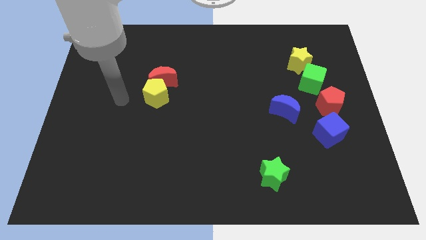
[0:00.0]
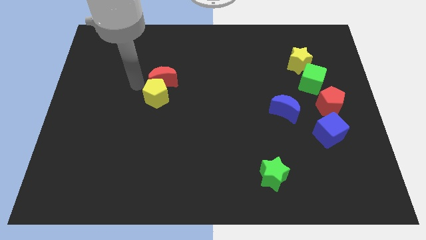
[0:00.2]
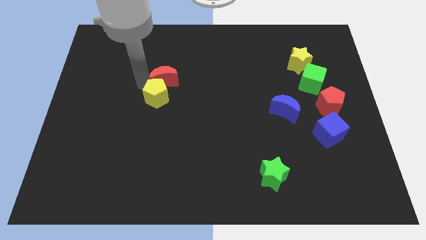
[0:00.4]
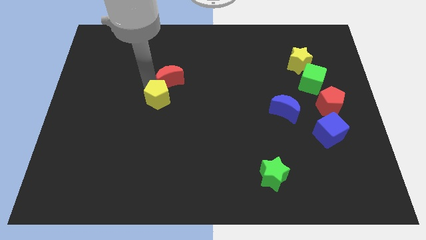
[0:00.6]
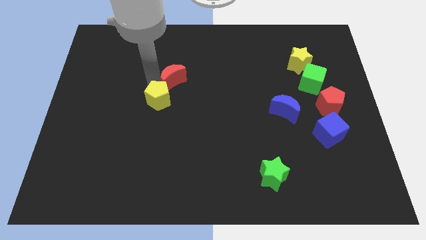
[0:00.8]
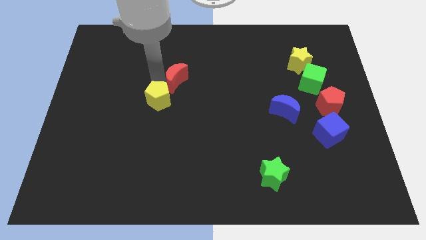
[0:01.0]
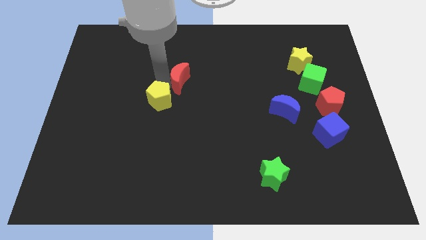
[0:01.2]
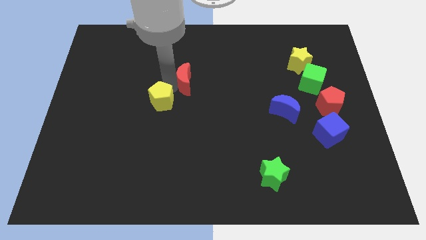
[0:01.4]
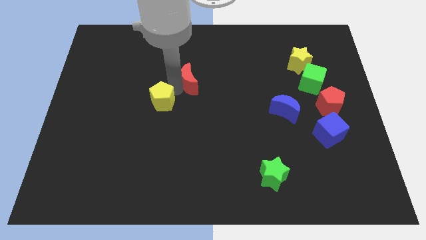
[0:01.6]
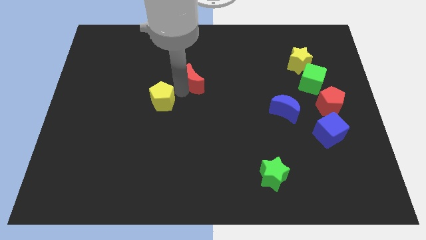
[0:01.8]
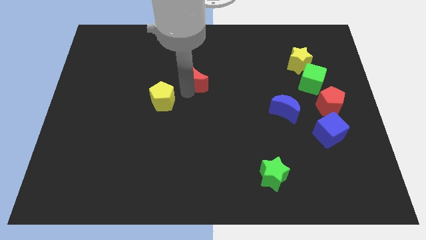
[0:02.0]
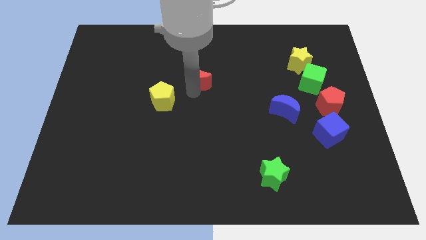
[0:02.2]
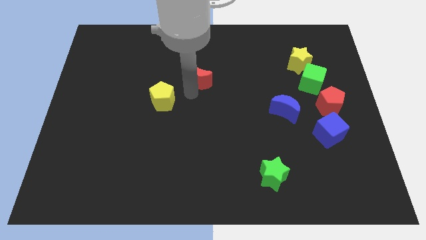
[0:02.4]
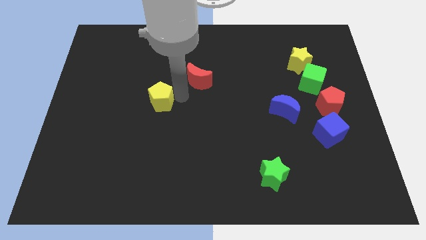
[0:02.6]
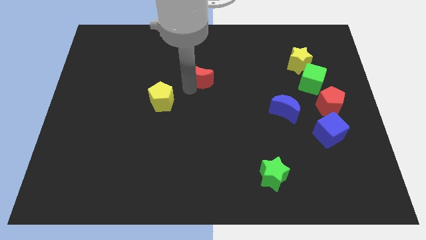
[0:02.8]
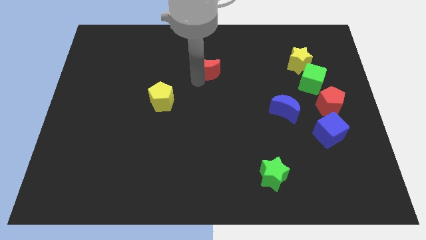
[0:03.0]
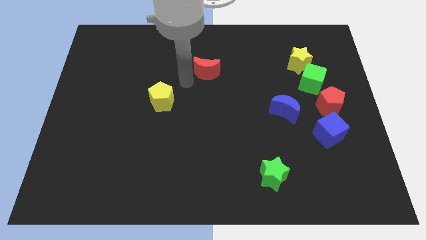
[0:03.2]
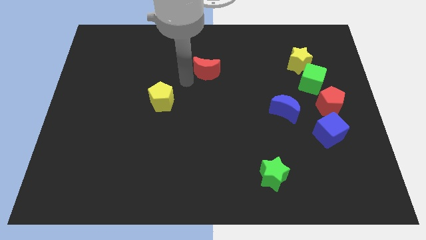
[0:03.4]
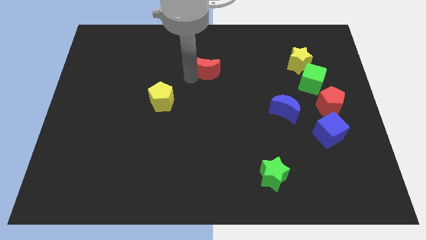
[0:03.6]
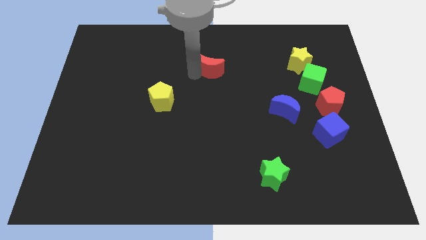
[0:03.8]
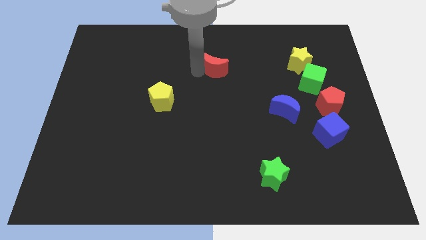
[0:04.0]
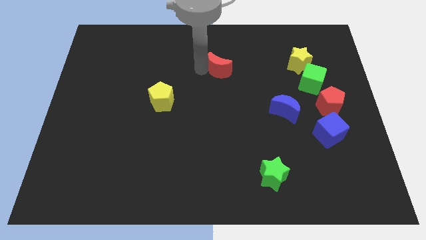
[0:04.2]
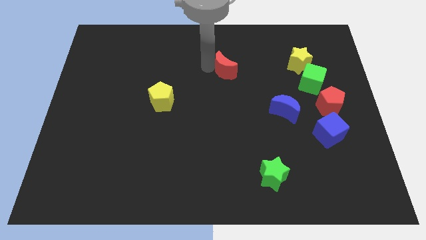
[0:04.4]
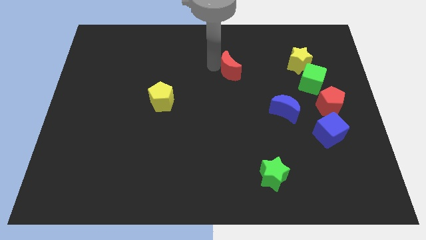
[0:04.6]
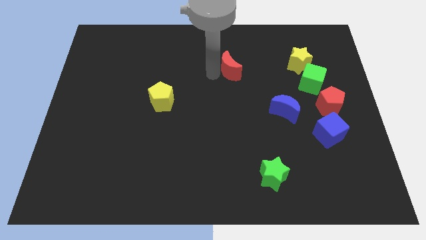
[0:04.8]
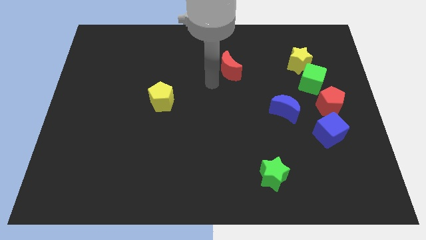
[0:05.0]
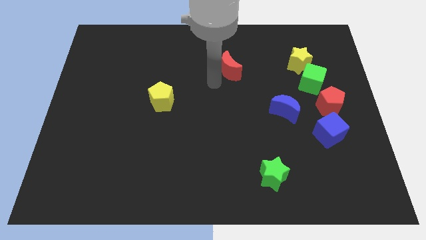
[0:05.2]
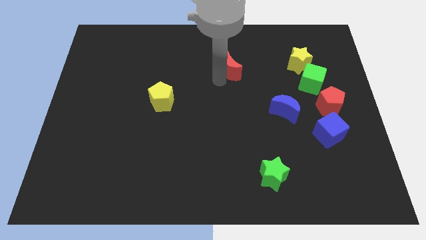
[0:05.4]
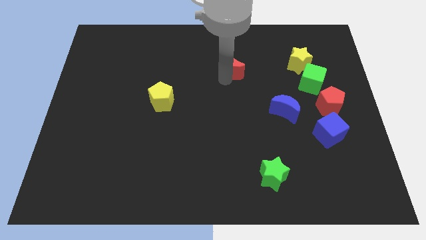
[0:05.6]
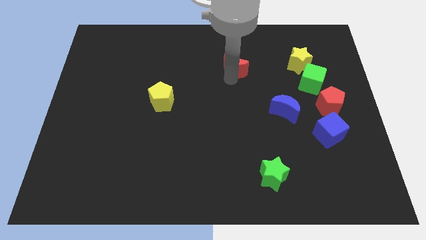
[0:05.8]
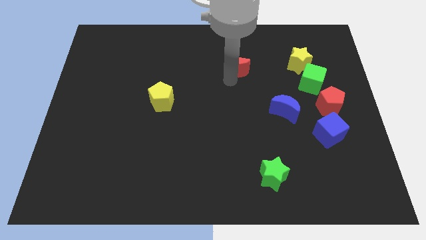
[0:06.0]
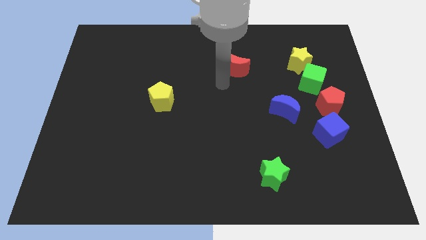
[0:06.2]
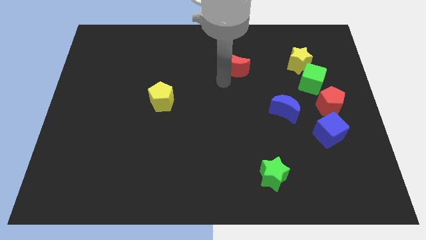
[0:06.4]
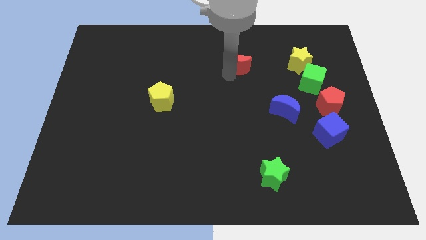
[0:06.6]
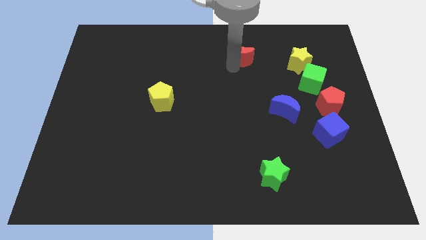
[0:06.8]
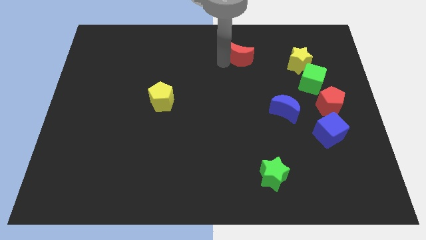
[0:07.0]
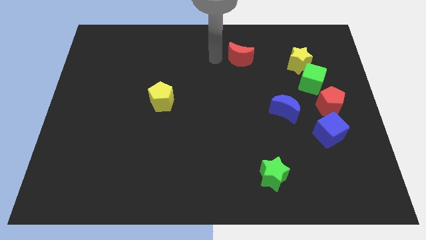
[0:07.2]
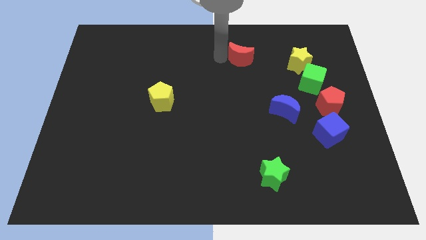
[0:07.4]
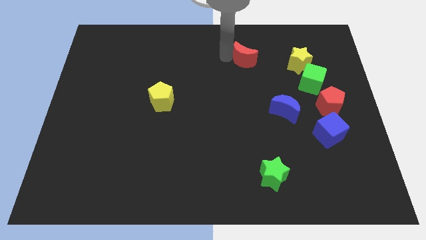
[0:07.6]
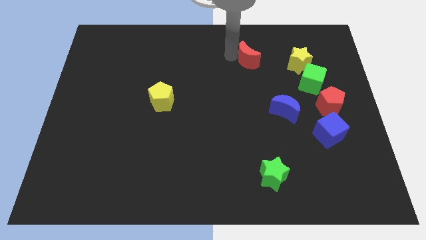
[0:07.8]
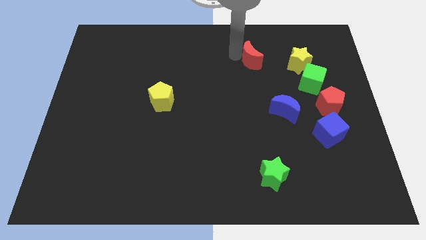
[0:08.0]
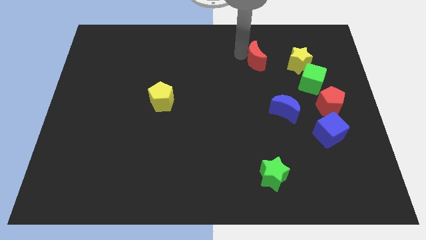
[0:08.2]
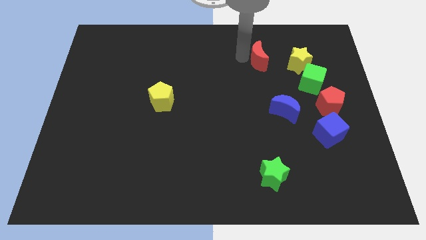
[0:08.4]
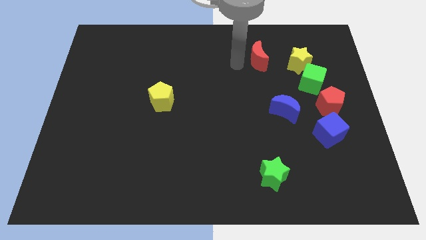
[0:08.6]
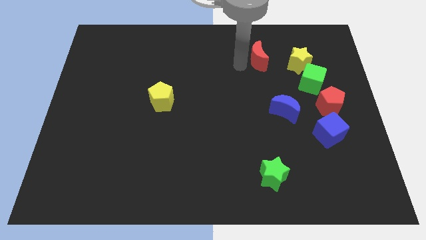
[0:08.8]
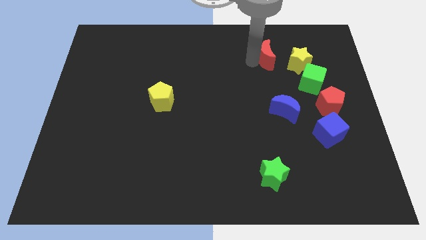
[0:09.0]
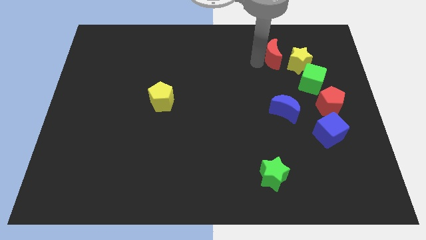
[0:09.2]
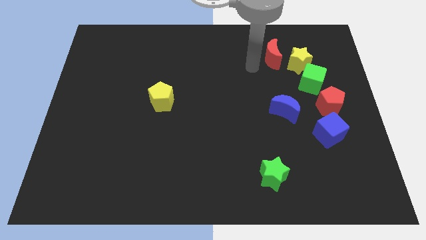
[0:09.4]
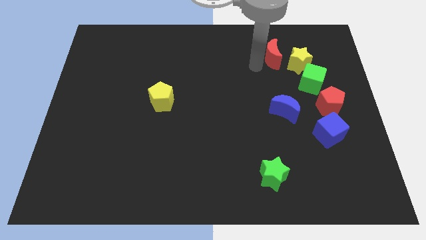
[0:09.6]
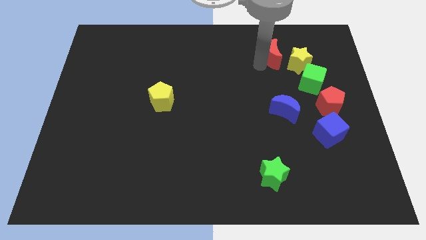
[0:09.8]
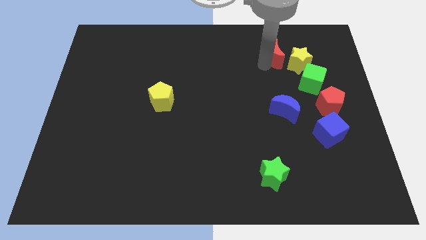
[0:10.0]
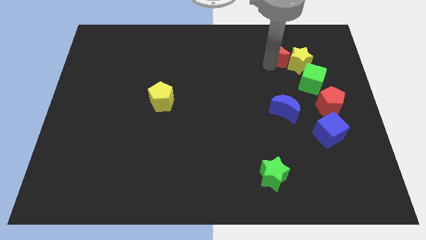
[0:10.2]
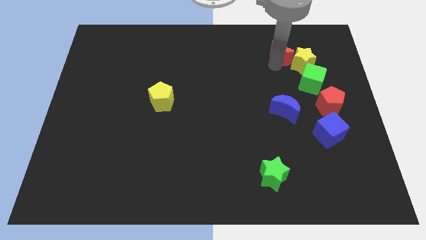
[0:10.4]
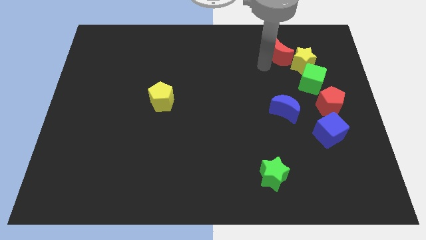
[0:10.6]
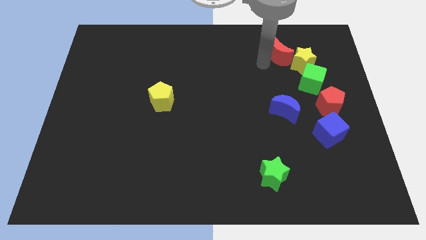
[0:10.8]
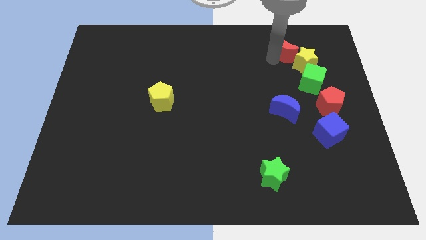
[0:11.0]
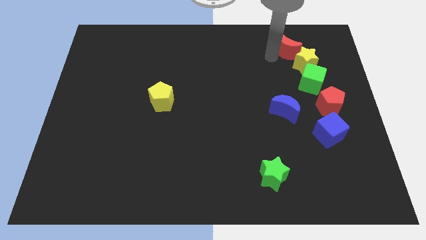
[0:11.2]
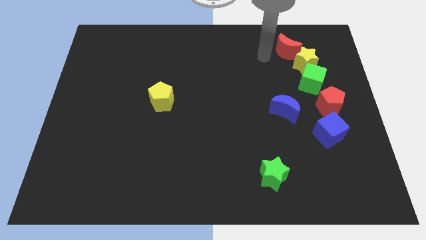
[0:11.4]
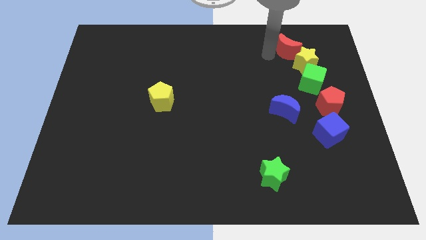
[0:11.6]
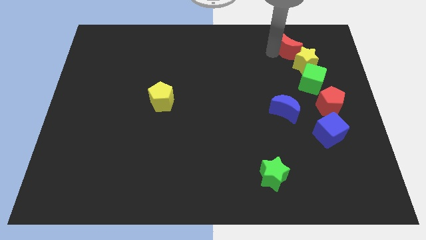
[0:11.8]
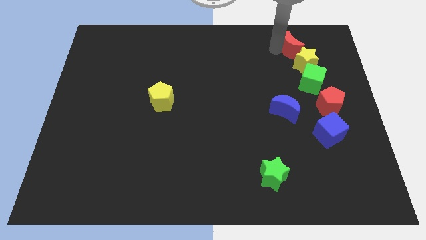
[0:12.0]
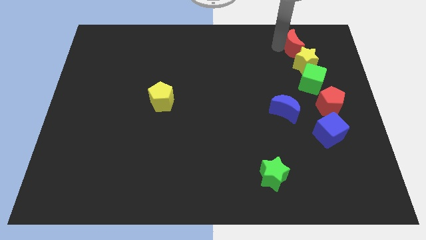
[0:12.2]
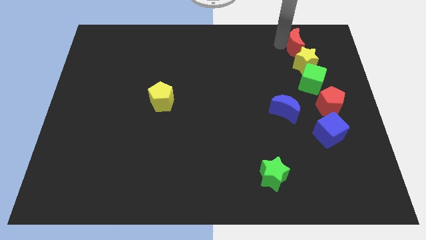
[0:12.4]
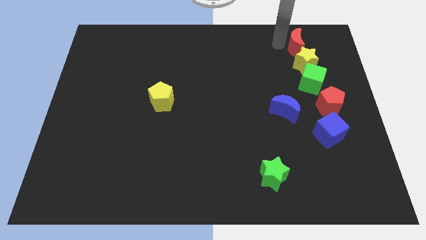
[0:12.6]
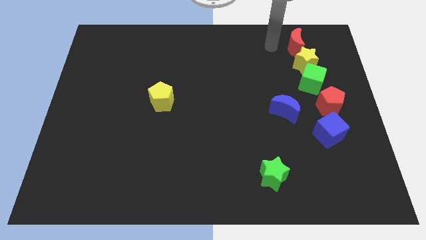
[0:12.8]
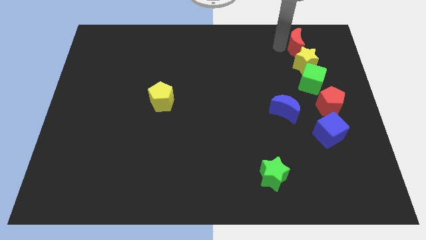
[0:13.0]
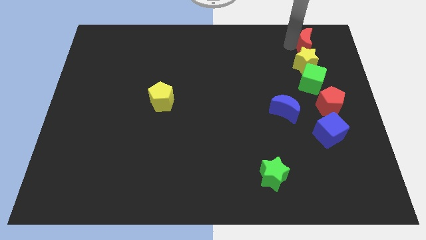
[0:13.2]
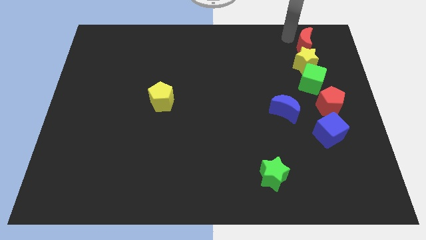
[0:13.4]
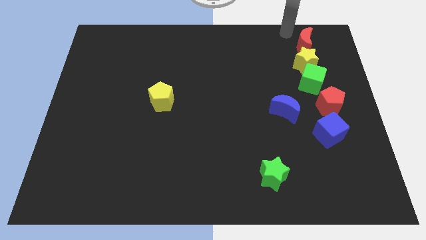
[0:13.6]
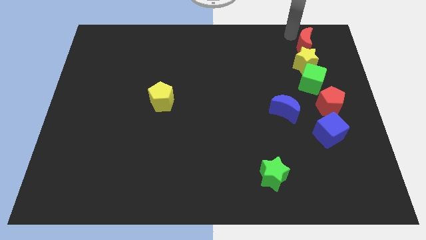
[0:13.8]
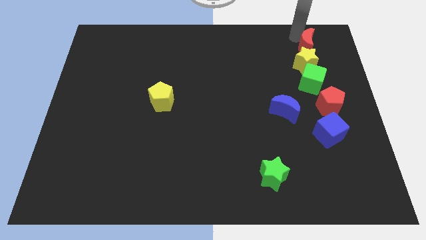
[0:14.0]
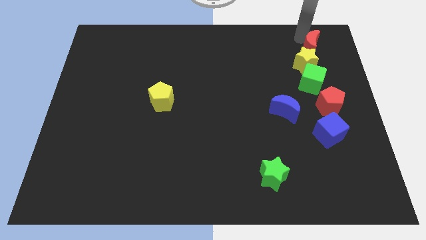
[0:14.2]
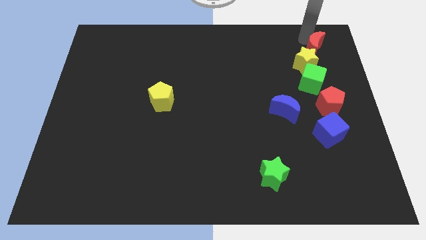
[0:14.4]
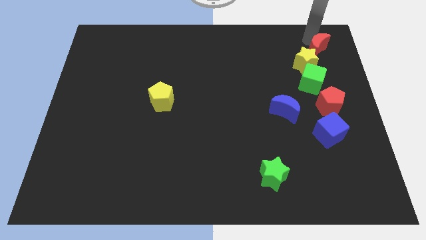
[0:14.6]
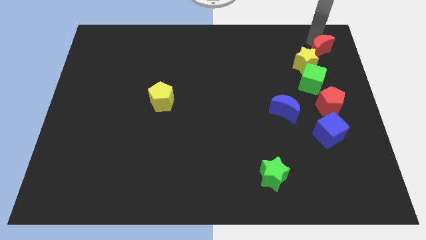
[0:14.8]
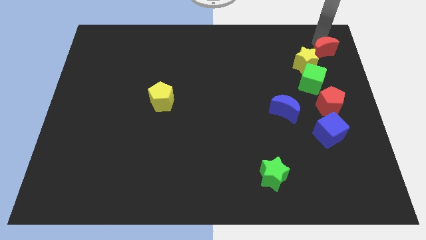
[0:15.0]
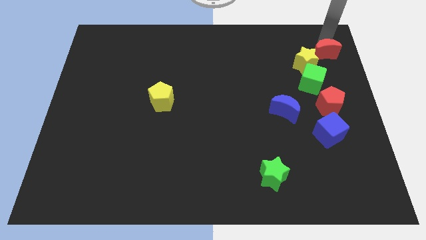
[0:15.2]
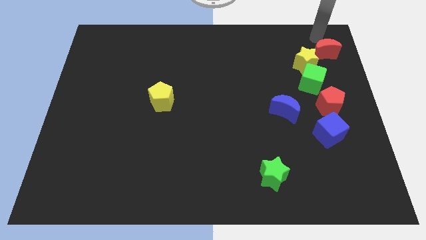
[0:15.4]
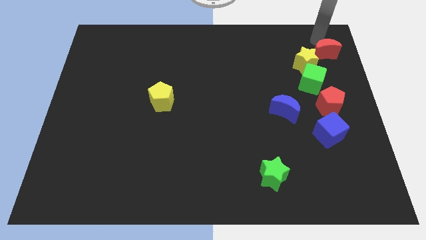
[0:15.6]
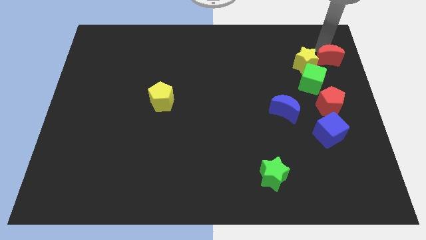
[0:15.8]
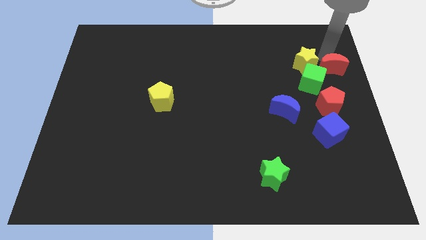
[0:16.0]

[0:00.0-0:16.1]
move the red moon to the right side
